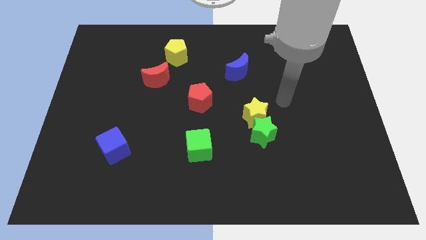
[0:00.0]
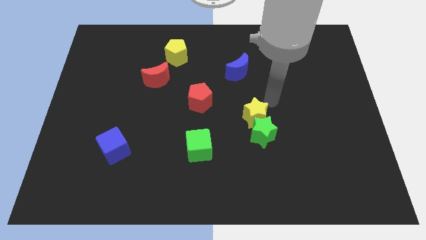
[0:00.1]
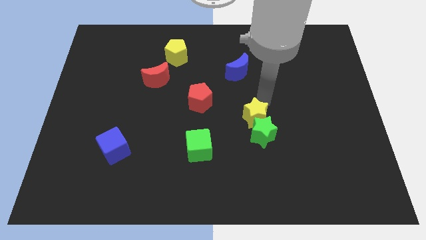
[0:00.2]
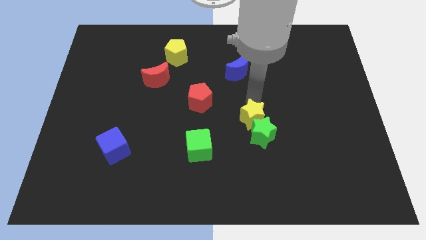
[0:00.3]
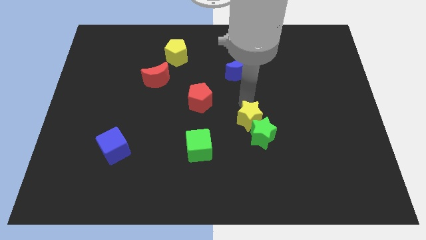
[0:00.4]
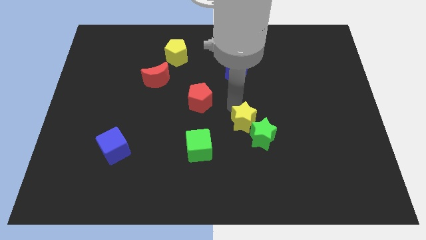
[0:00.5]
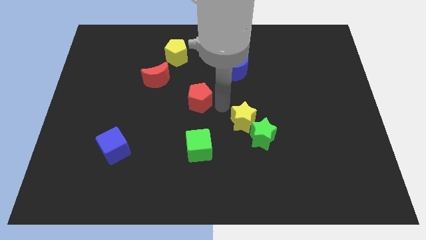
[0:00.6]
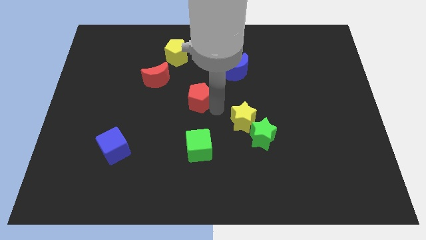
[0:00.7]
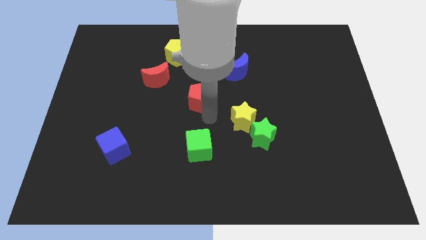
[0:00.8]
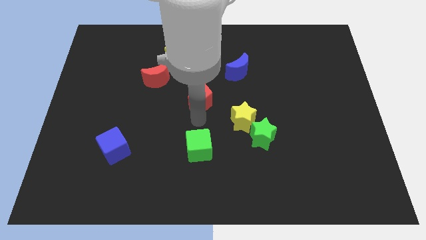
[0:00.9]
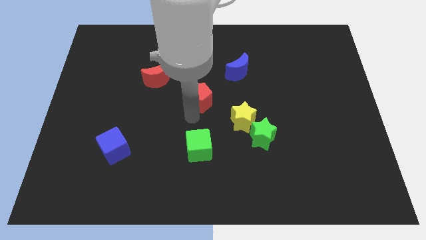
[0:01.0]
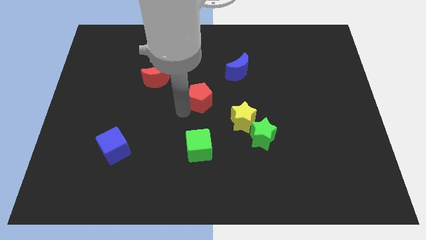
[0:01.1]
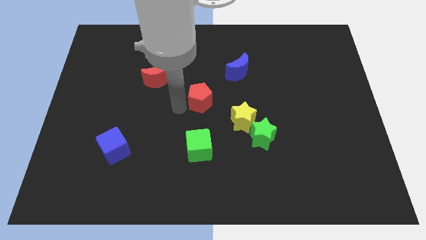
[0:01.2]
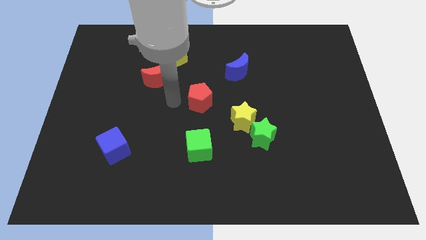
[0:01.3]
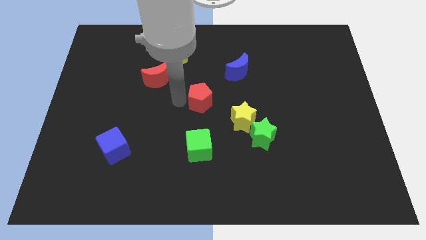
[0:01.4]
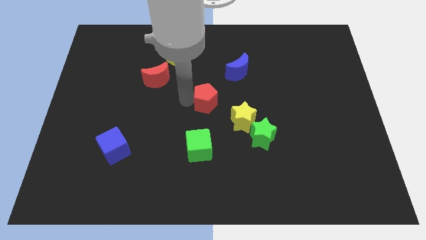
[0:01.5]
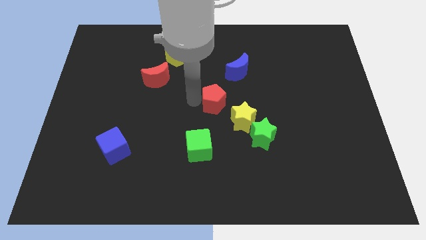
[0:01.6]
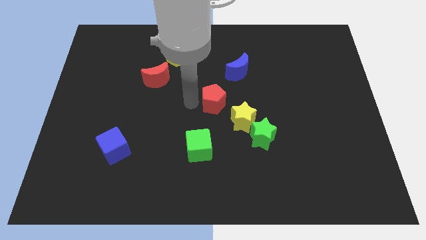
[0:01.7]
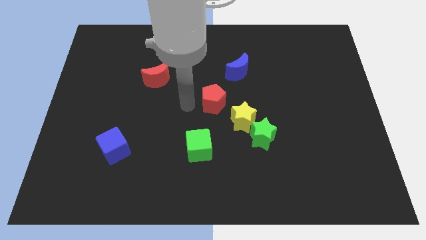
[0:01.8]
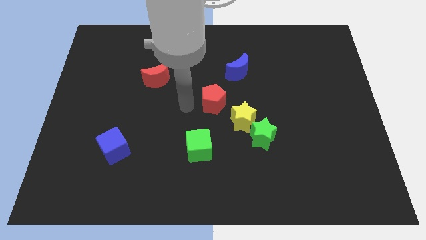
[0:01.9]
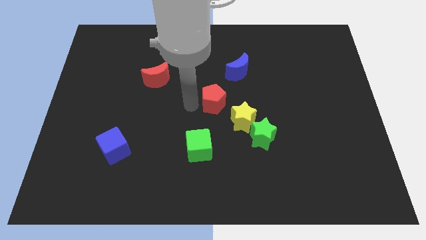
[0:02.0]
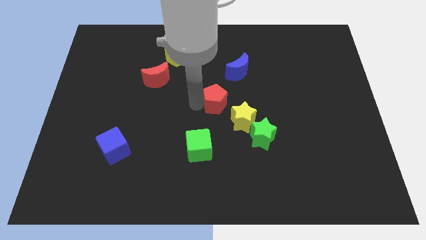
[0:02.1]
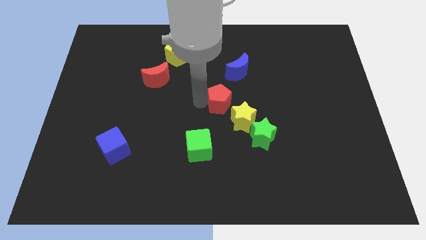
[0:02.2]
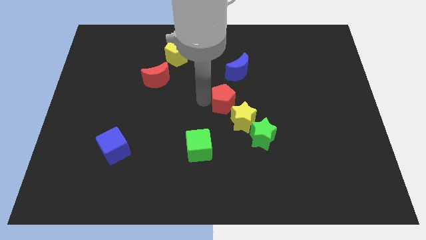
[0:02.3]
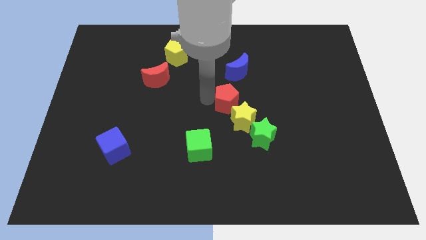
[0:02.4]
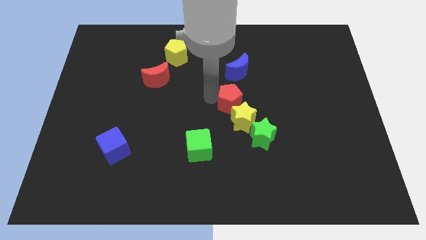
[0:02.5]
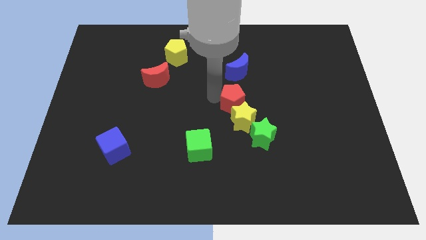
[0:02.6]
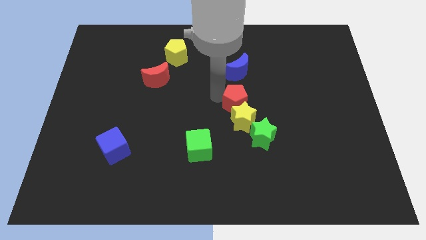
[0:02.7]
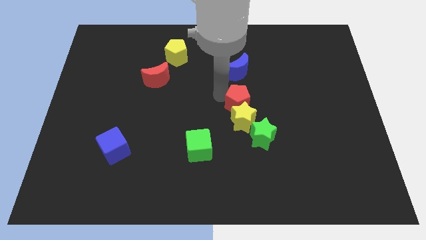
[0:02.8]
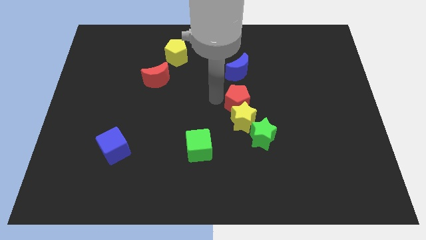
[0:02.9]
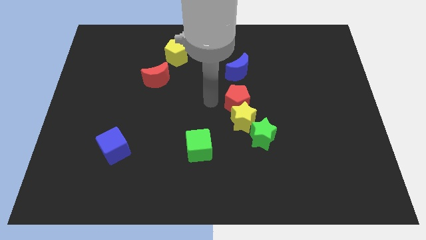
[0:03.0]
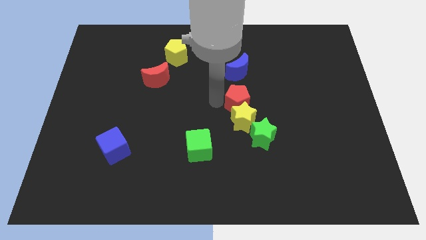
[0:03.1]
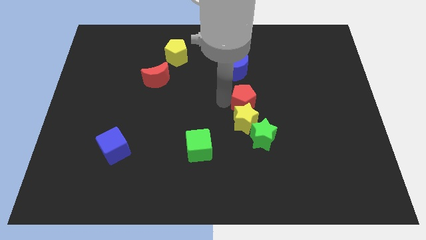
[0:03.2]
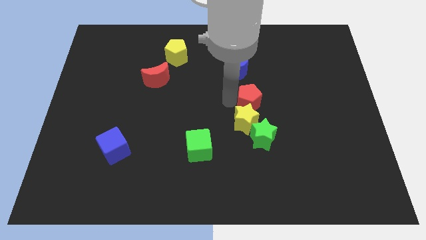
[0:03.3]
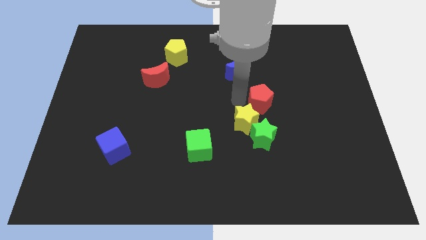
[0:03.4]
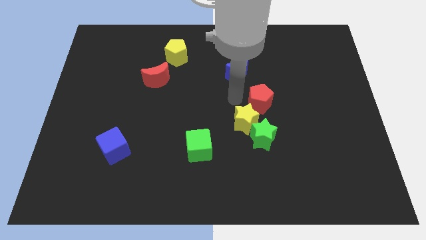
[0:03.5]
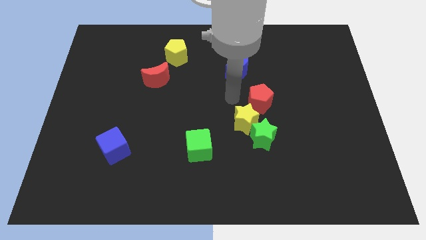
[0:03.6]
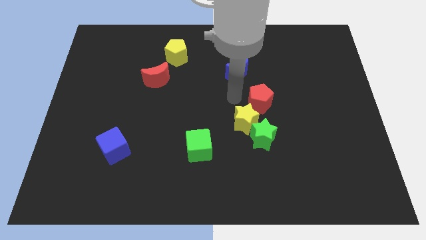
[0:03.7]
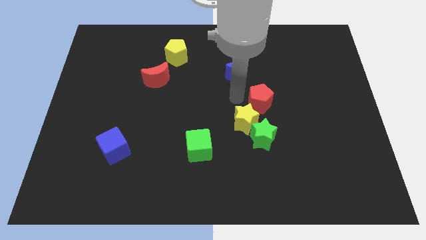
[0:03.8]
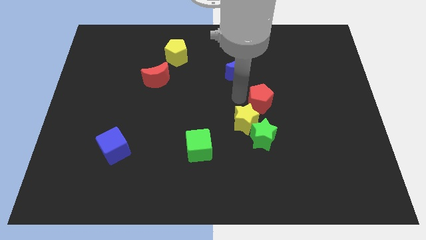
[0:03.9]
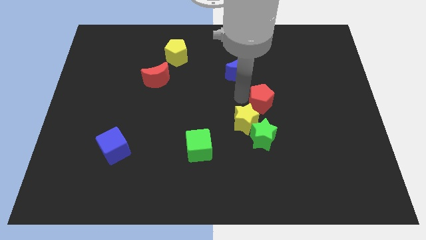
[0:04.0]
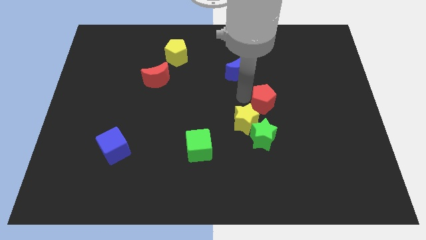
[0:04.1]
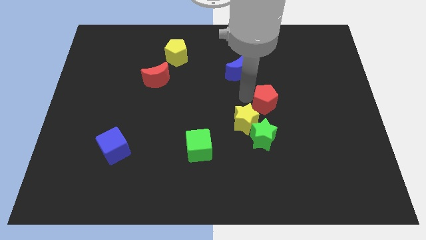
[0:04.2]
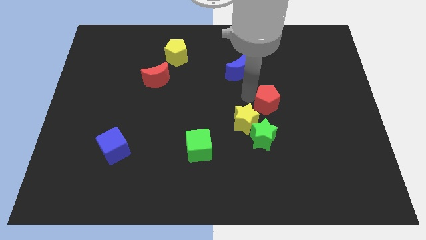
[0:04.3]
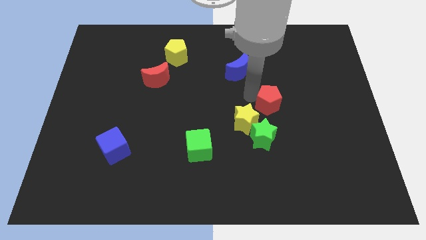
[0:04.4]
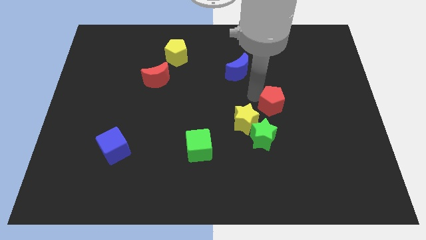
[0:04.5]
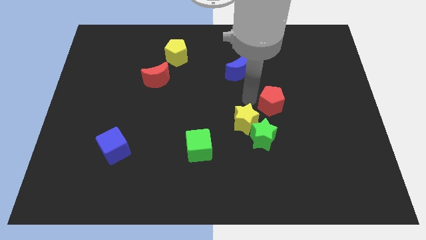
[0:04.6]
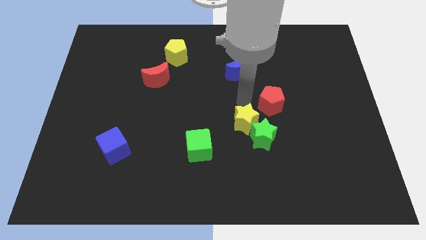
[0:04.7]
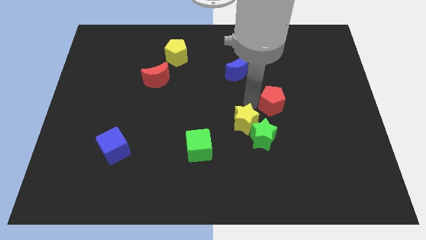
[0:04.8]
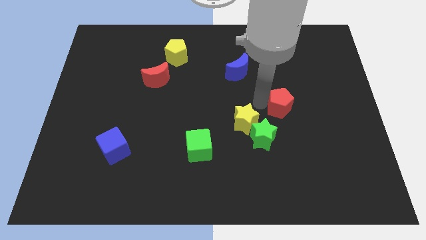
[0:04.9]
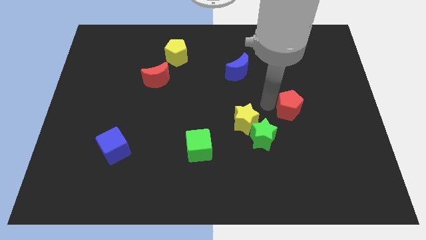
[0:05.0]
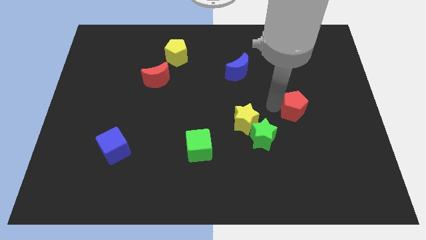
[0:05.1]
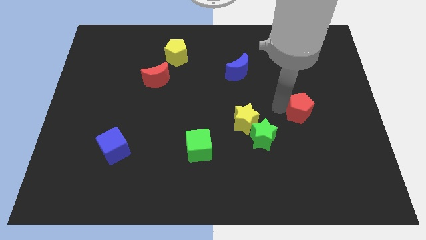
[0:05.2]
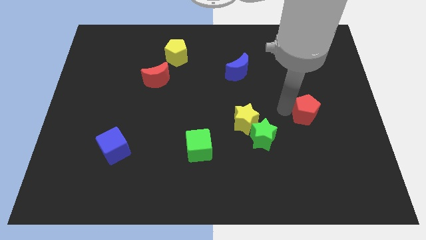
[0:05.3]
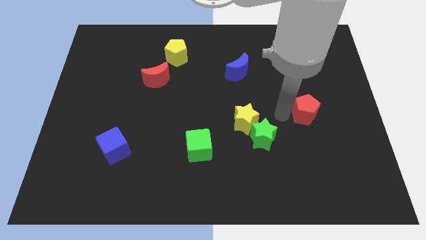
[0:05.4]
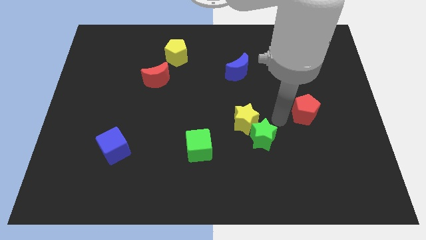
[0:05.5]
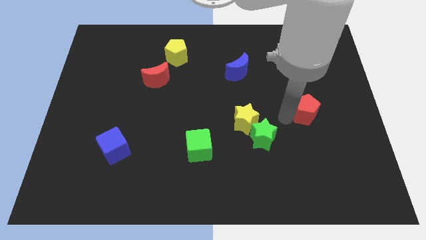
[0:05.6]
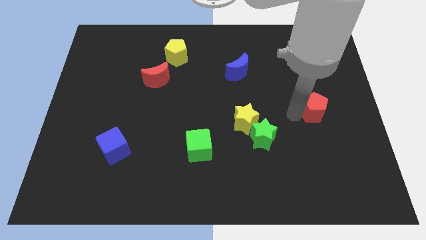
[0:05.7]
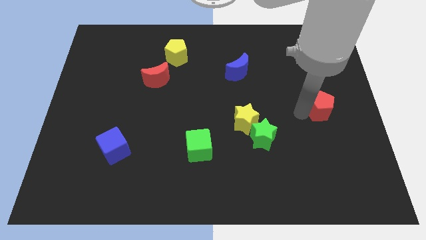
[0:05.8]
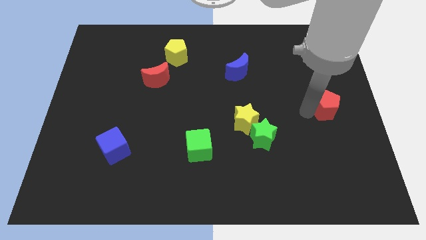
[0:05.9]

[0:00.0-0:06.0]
put the red pentagon to the center right

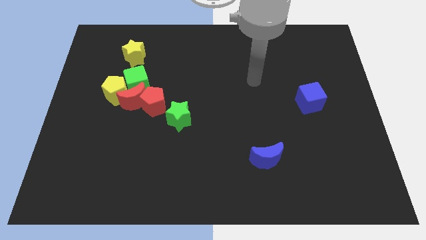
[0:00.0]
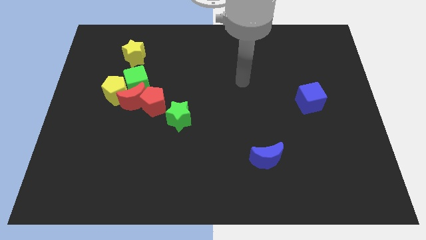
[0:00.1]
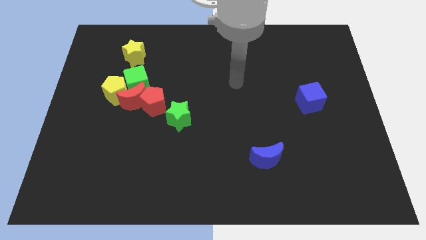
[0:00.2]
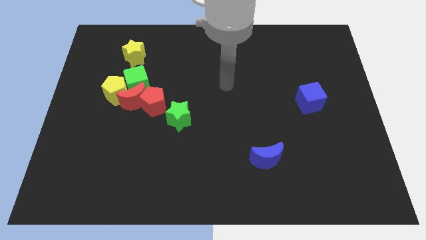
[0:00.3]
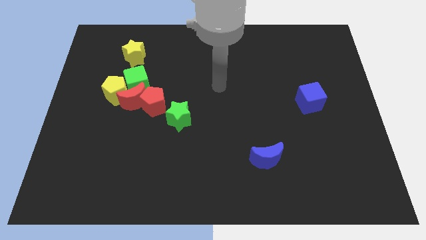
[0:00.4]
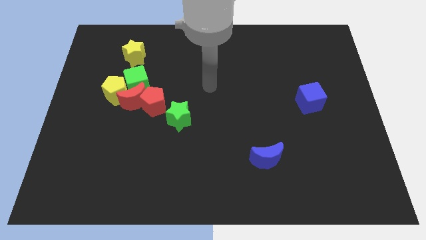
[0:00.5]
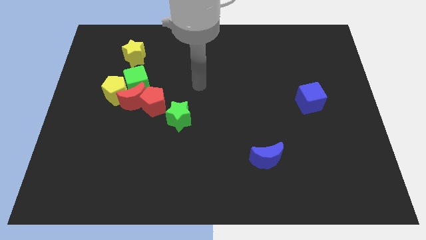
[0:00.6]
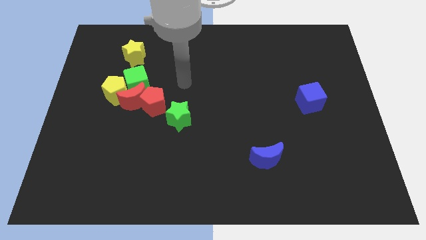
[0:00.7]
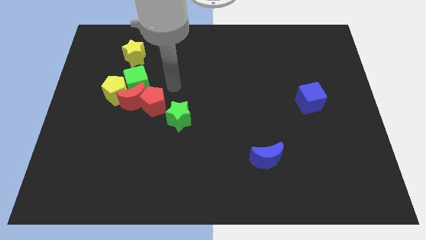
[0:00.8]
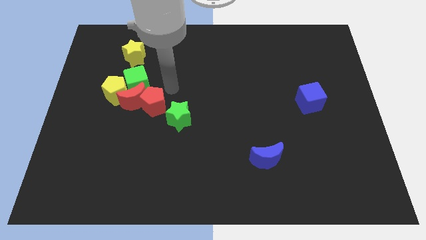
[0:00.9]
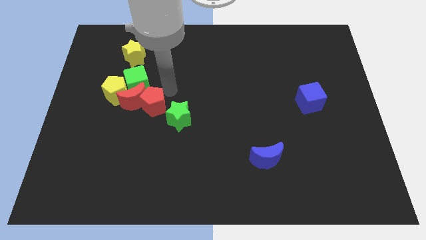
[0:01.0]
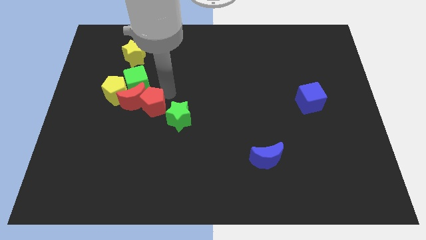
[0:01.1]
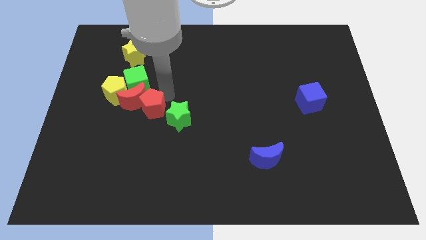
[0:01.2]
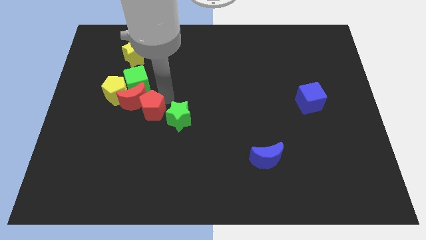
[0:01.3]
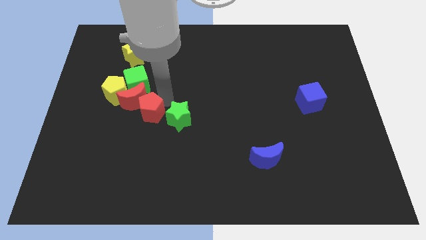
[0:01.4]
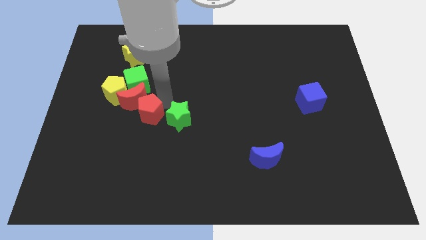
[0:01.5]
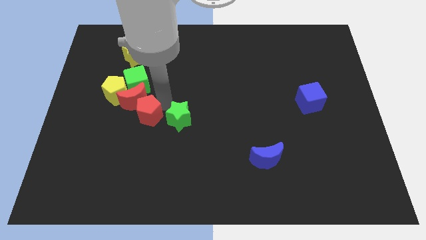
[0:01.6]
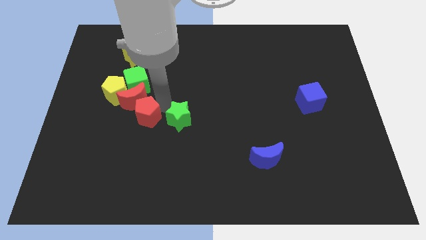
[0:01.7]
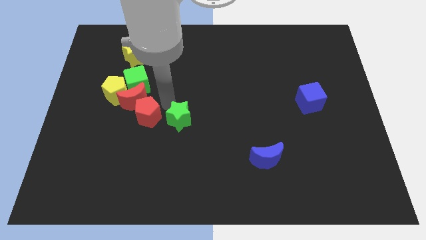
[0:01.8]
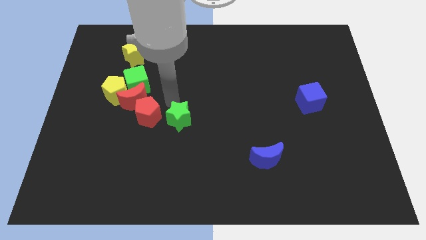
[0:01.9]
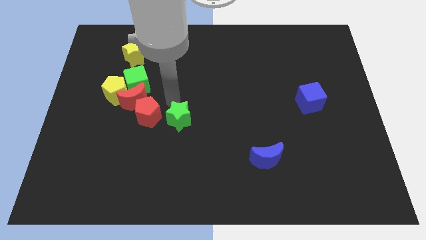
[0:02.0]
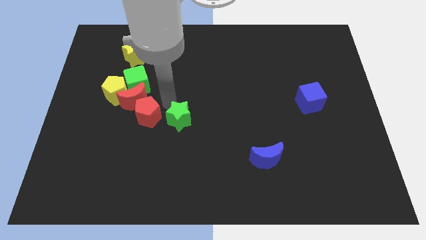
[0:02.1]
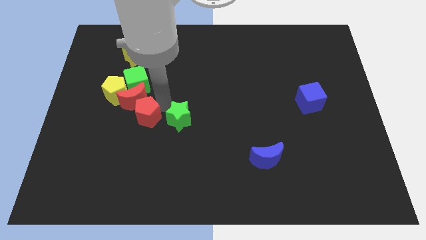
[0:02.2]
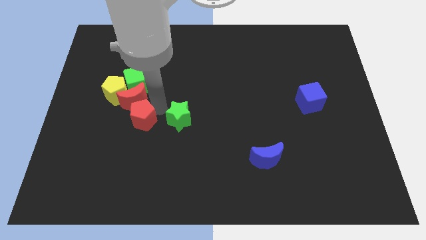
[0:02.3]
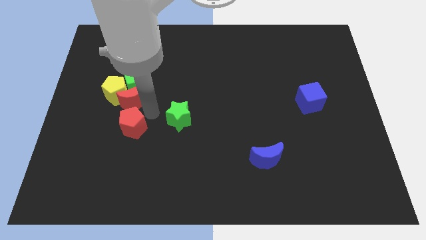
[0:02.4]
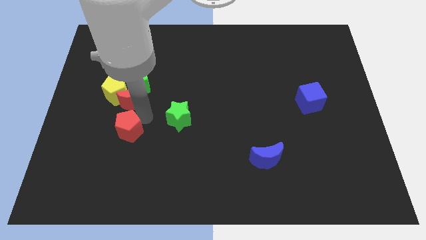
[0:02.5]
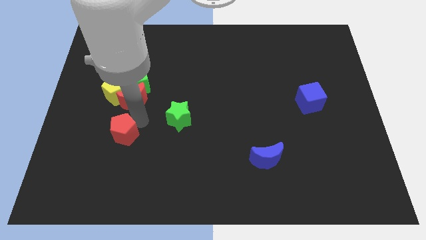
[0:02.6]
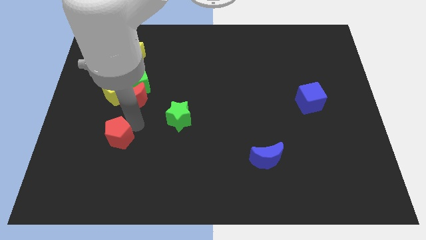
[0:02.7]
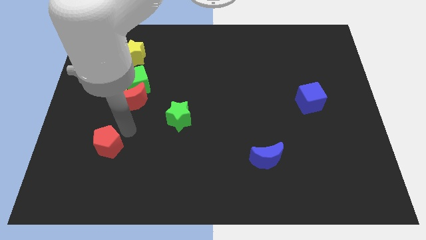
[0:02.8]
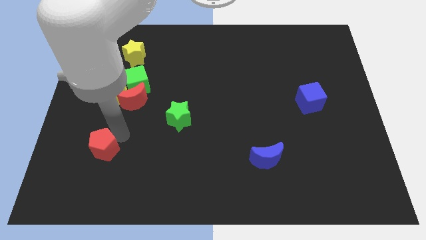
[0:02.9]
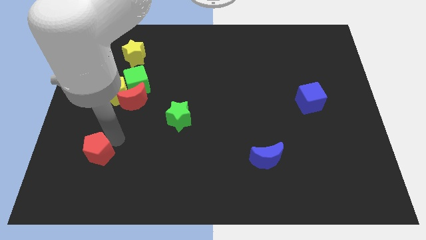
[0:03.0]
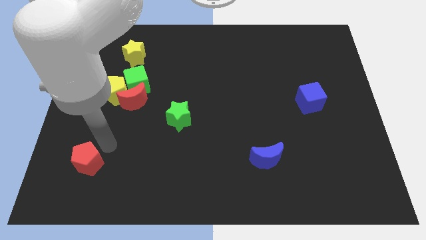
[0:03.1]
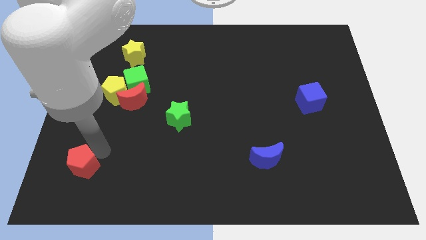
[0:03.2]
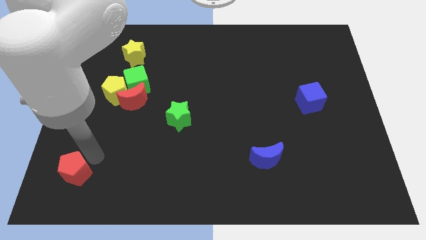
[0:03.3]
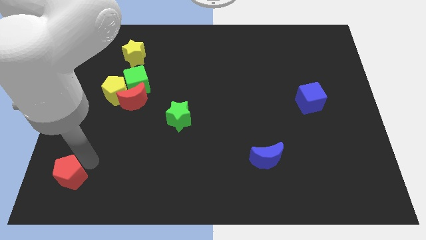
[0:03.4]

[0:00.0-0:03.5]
push the red pentagon to the bottom left
